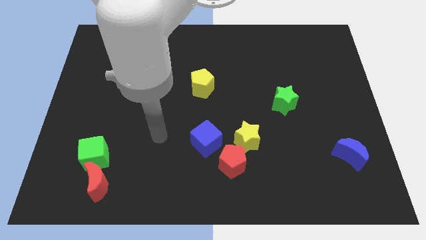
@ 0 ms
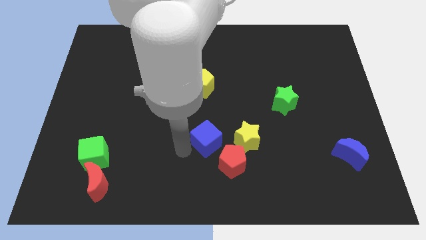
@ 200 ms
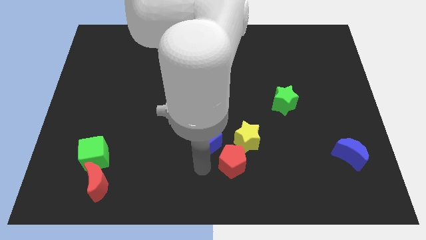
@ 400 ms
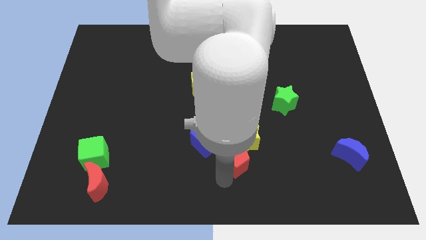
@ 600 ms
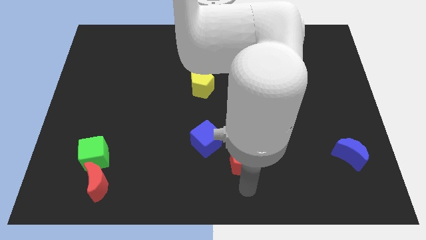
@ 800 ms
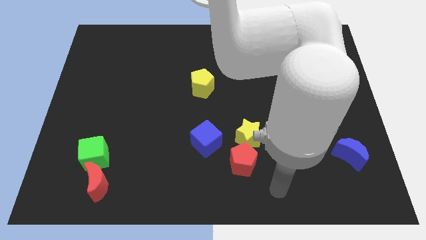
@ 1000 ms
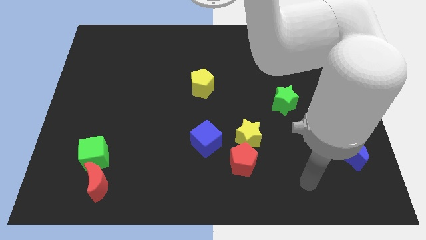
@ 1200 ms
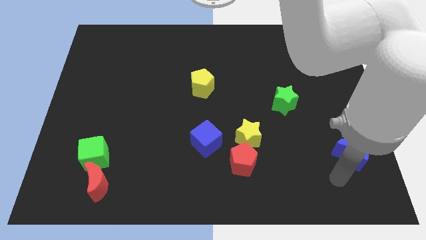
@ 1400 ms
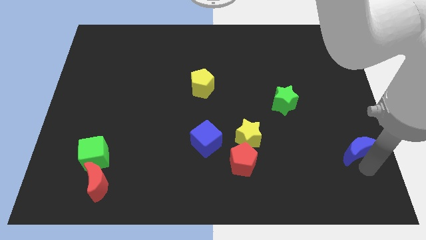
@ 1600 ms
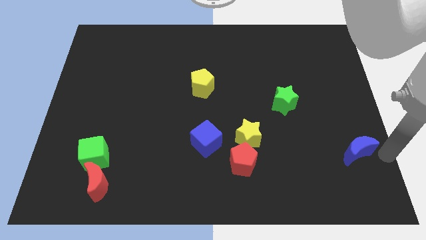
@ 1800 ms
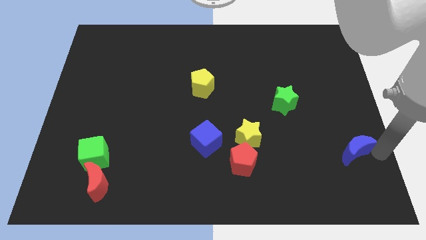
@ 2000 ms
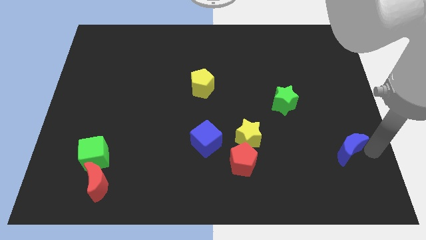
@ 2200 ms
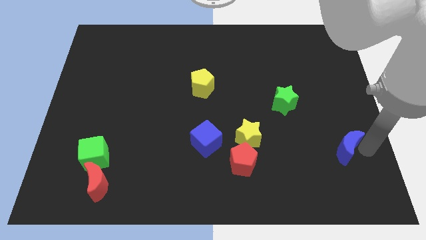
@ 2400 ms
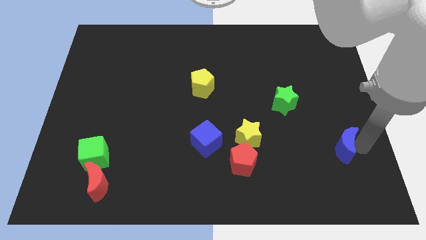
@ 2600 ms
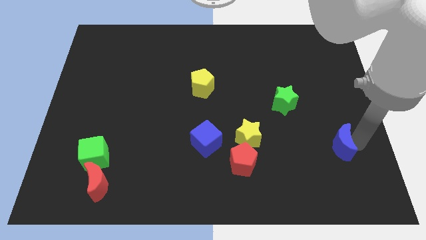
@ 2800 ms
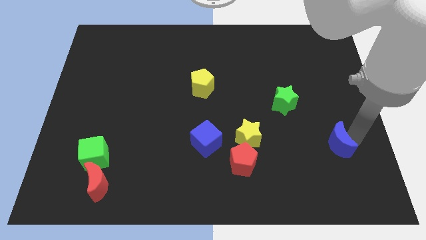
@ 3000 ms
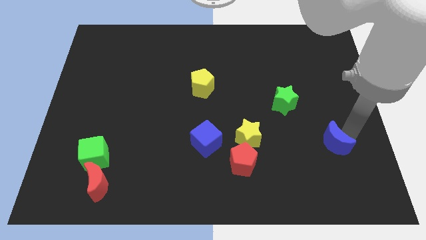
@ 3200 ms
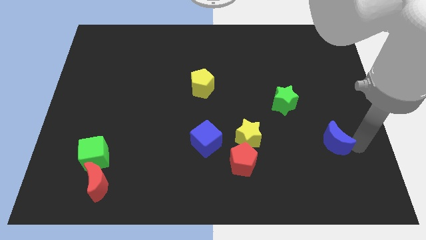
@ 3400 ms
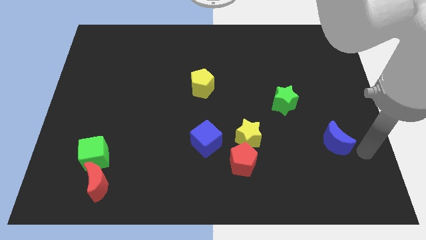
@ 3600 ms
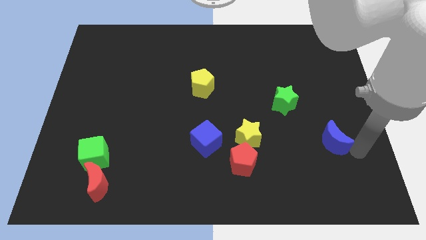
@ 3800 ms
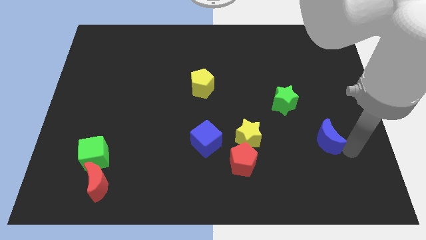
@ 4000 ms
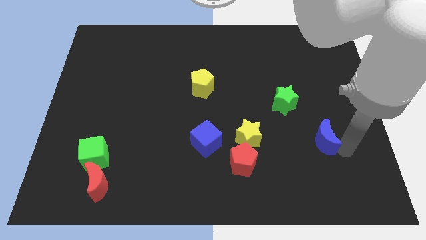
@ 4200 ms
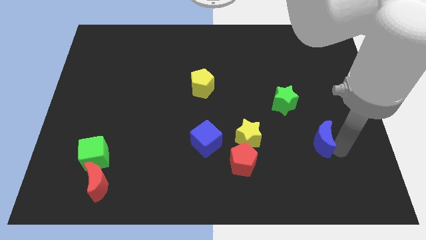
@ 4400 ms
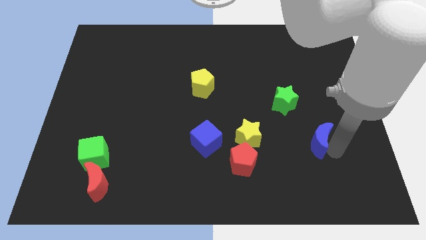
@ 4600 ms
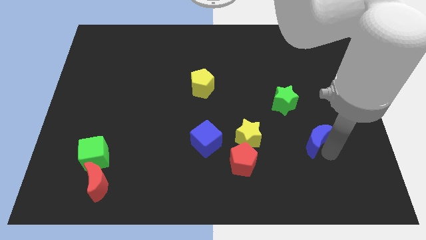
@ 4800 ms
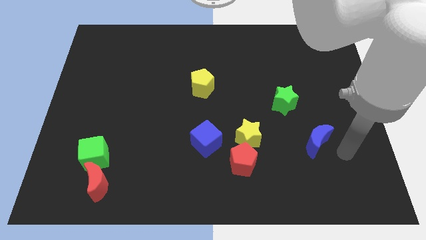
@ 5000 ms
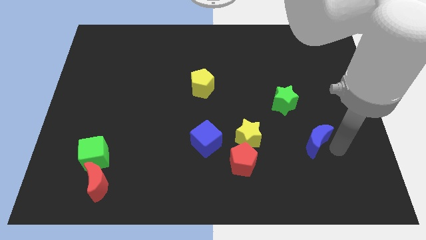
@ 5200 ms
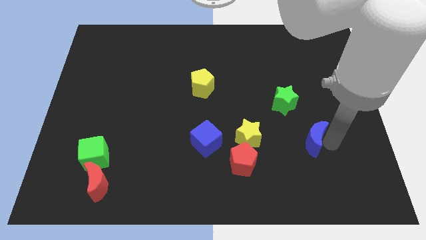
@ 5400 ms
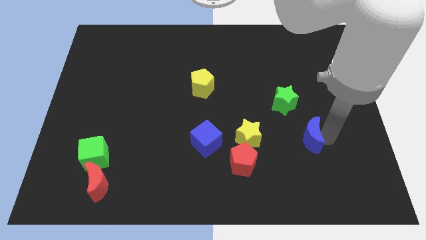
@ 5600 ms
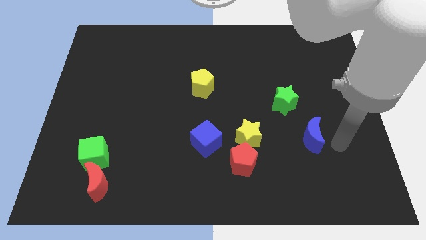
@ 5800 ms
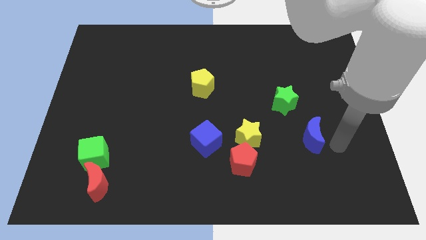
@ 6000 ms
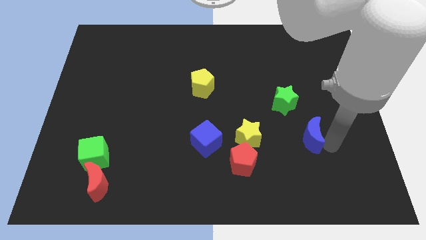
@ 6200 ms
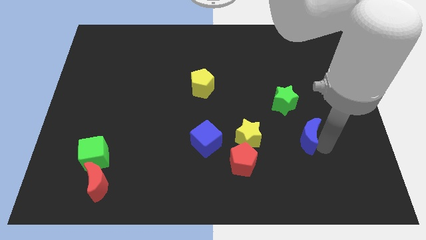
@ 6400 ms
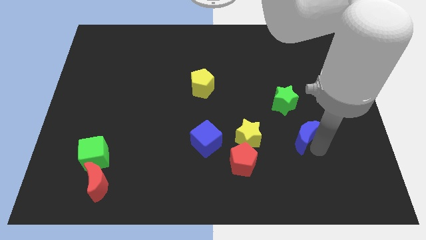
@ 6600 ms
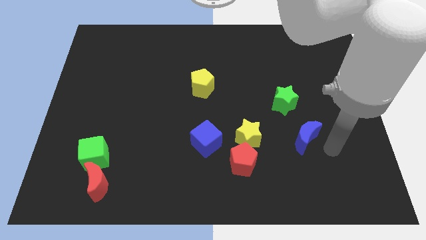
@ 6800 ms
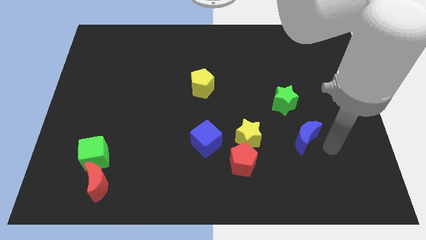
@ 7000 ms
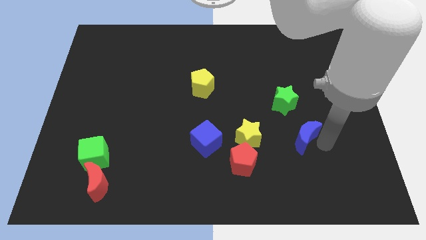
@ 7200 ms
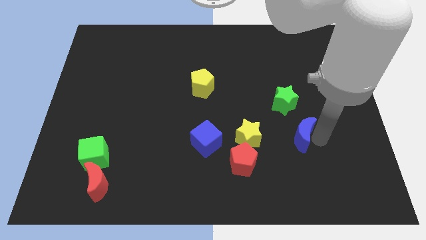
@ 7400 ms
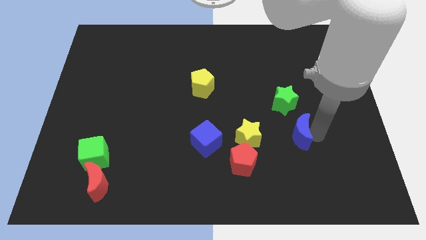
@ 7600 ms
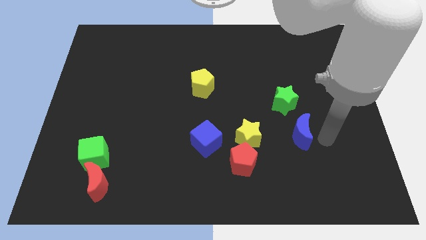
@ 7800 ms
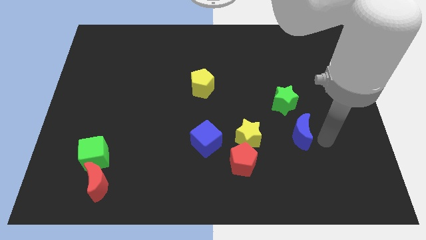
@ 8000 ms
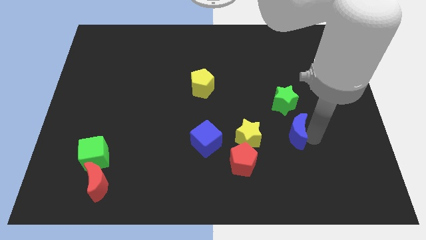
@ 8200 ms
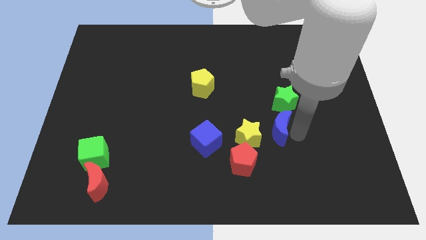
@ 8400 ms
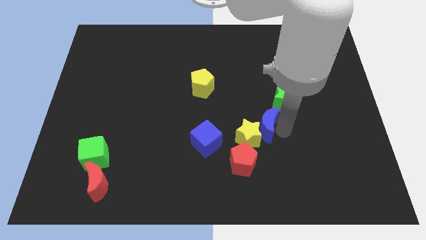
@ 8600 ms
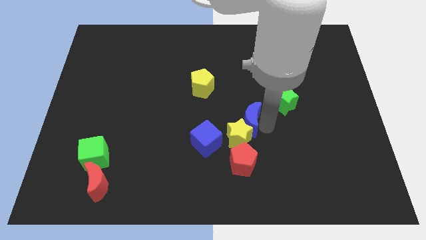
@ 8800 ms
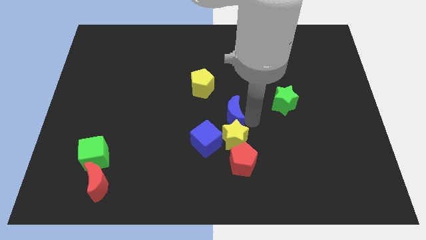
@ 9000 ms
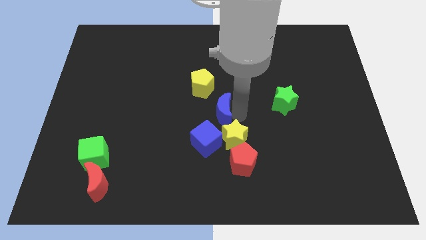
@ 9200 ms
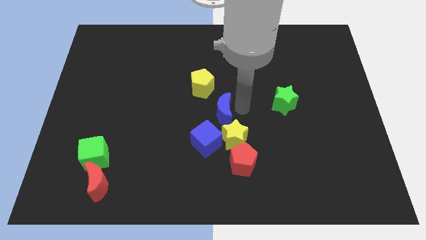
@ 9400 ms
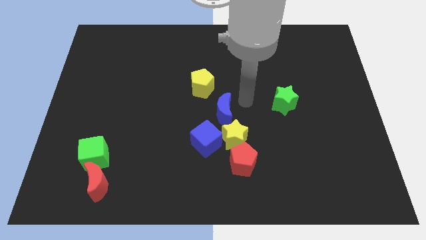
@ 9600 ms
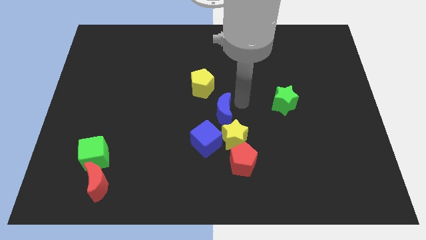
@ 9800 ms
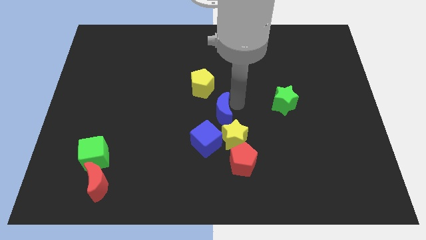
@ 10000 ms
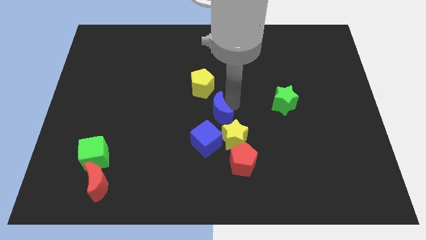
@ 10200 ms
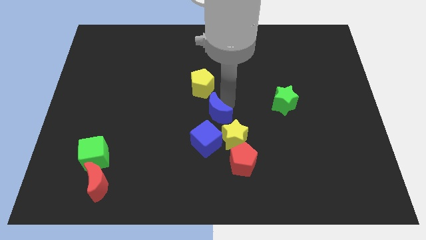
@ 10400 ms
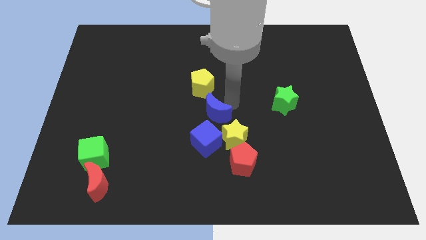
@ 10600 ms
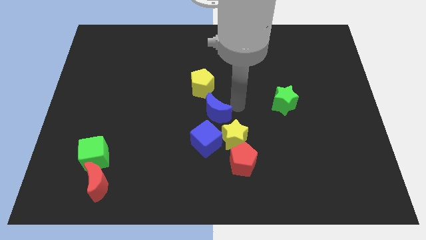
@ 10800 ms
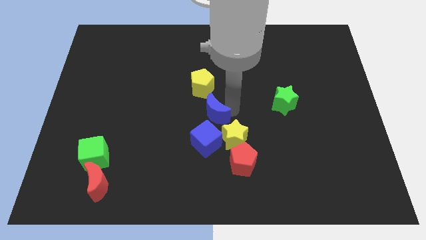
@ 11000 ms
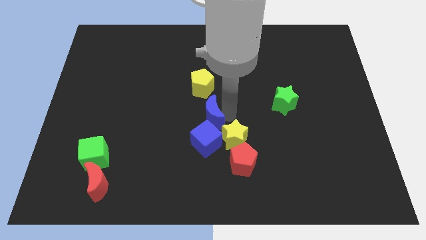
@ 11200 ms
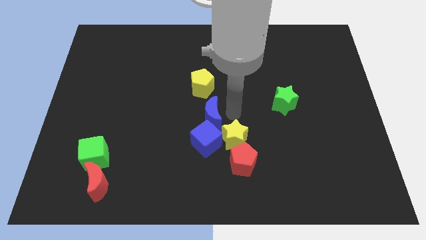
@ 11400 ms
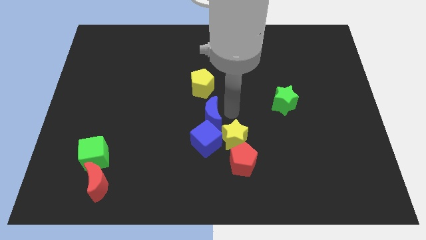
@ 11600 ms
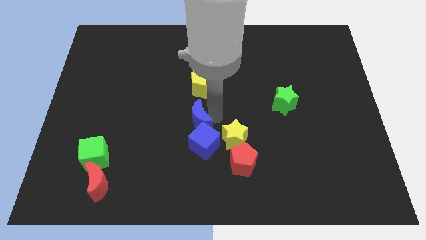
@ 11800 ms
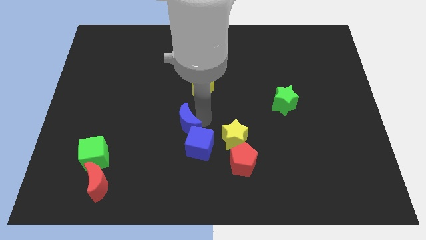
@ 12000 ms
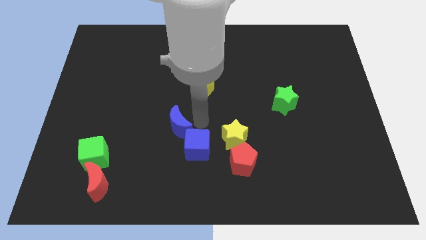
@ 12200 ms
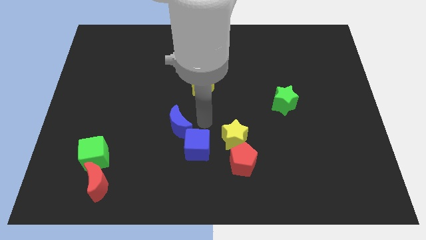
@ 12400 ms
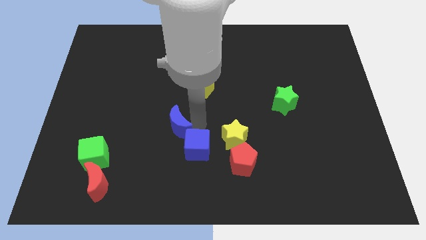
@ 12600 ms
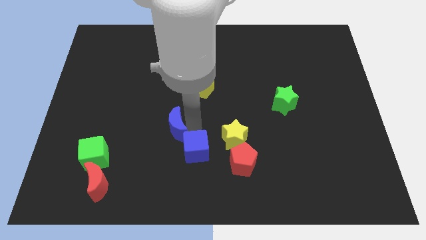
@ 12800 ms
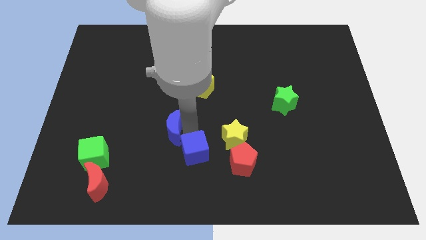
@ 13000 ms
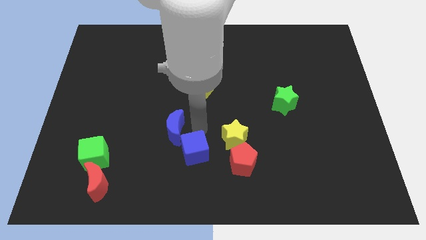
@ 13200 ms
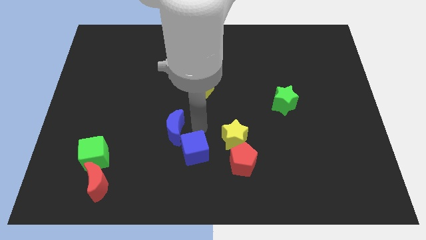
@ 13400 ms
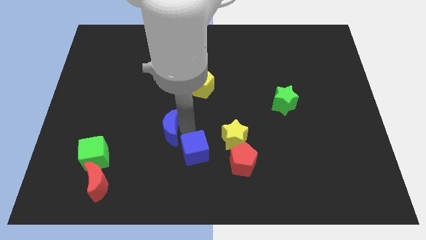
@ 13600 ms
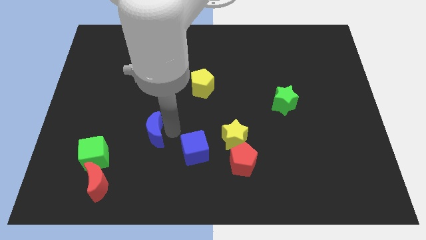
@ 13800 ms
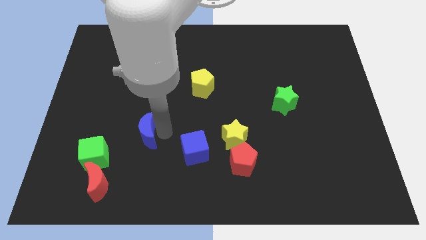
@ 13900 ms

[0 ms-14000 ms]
put the blue moon to the top right side of the green cube
